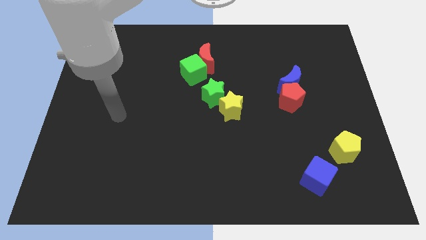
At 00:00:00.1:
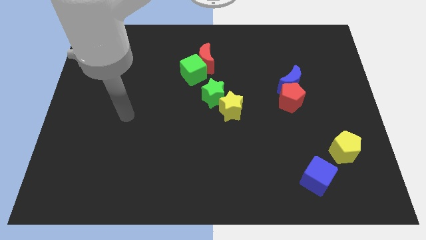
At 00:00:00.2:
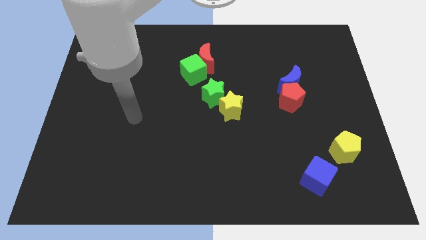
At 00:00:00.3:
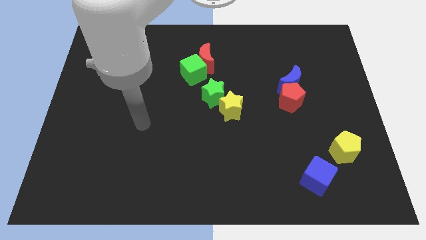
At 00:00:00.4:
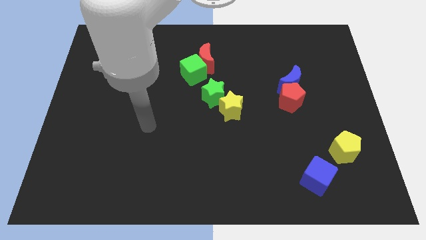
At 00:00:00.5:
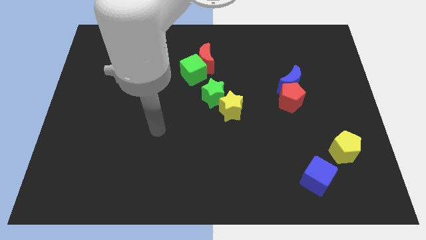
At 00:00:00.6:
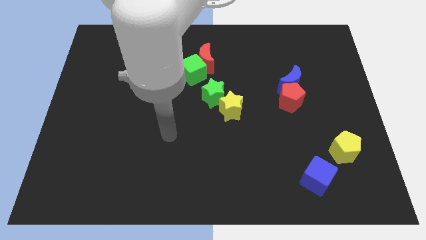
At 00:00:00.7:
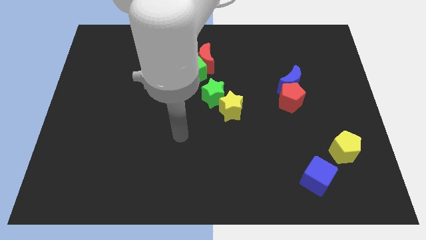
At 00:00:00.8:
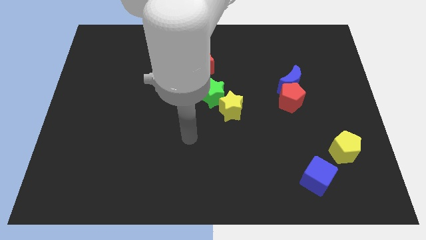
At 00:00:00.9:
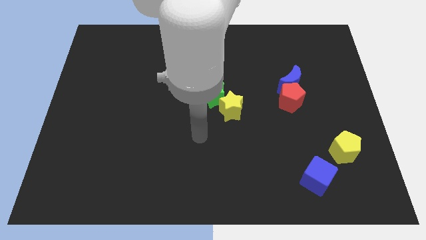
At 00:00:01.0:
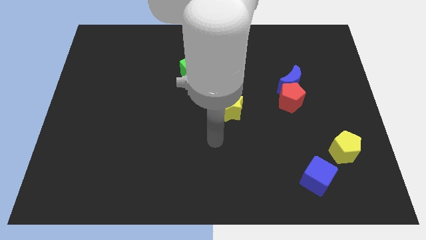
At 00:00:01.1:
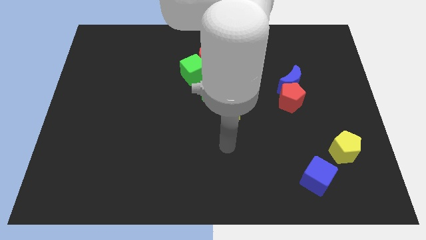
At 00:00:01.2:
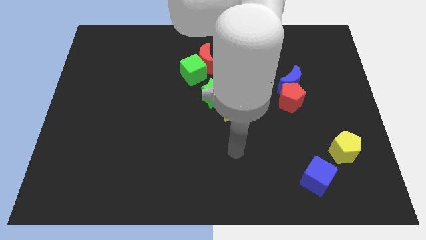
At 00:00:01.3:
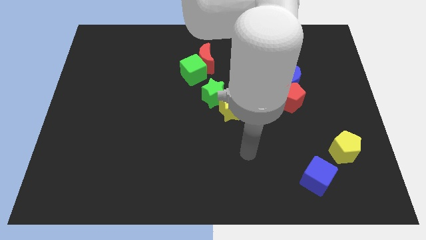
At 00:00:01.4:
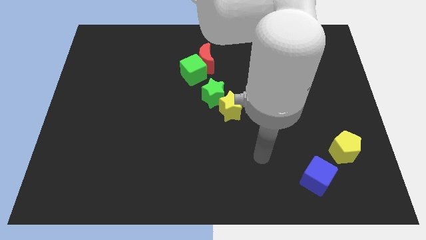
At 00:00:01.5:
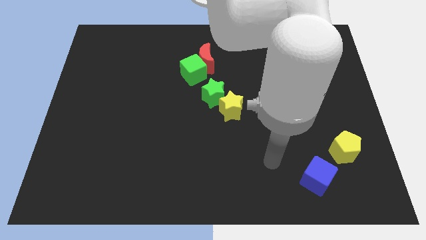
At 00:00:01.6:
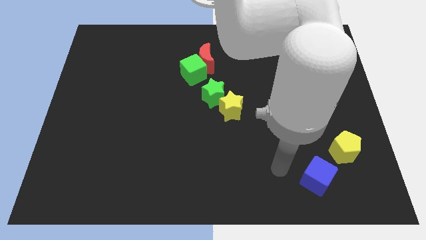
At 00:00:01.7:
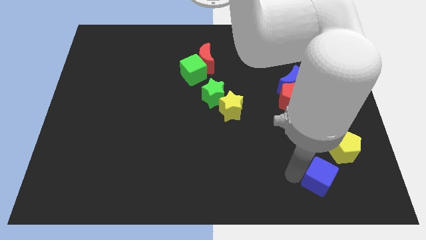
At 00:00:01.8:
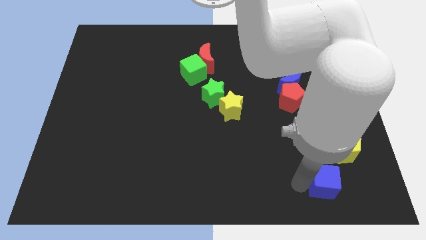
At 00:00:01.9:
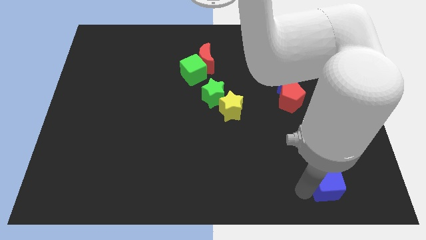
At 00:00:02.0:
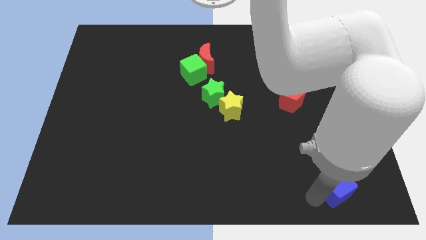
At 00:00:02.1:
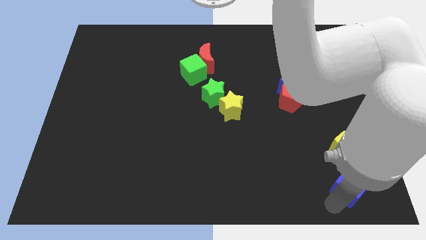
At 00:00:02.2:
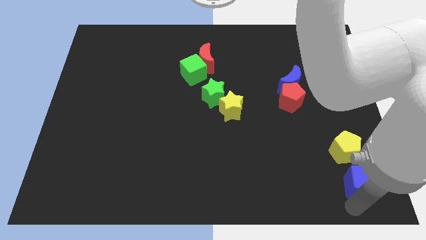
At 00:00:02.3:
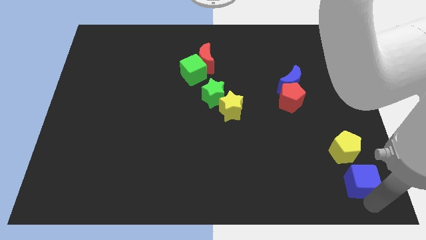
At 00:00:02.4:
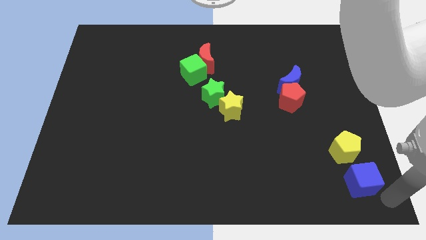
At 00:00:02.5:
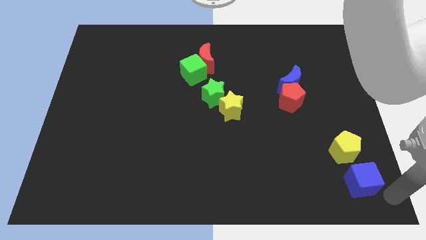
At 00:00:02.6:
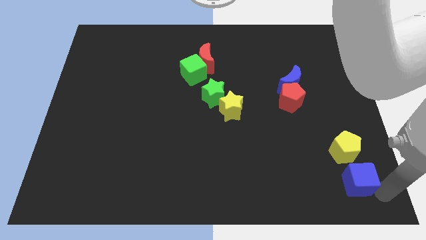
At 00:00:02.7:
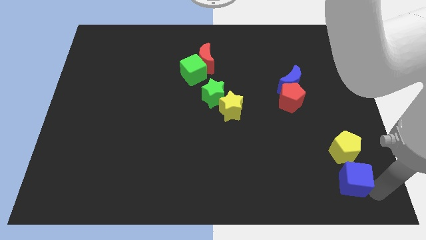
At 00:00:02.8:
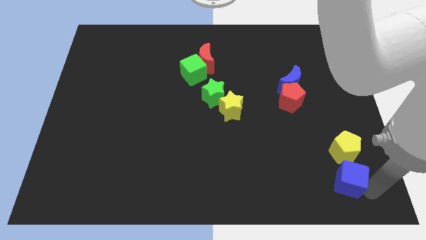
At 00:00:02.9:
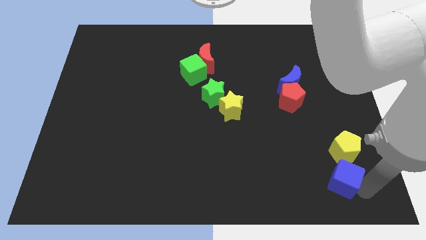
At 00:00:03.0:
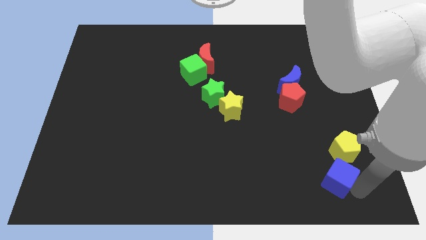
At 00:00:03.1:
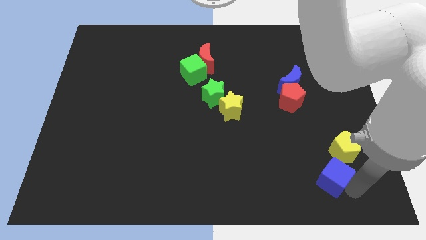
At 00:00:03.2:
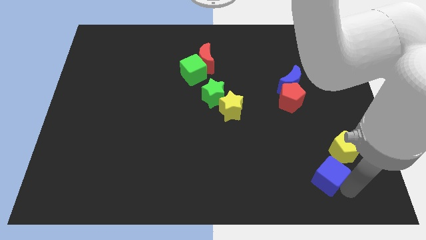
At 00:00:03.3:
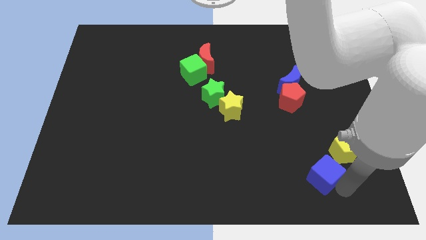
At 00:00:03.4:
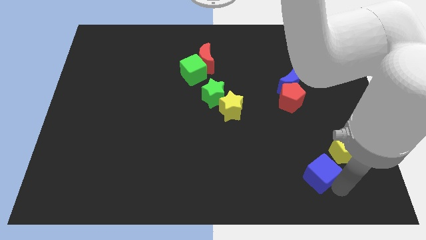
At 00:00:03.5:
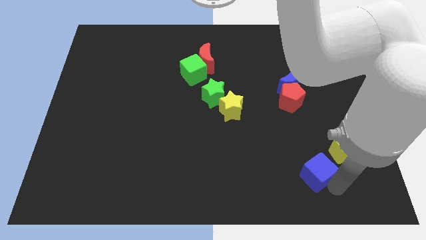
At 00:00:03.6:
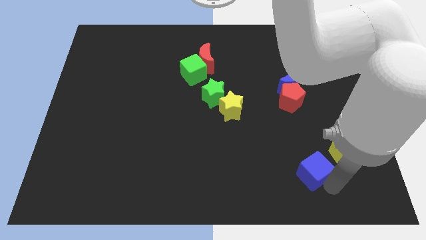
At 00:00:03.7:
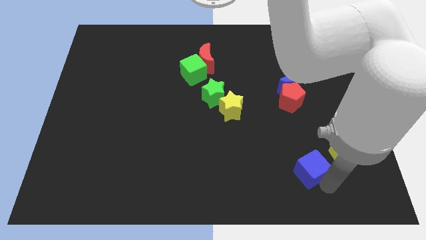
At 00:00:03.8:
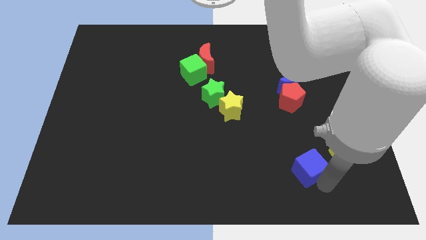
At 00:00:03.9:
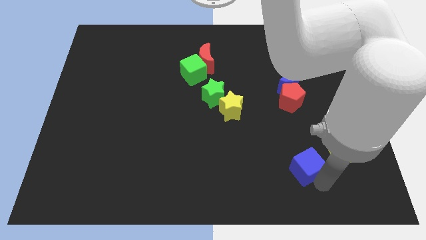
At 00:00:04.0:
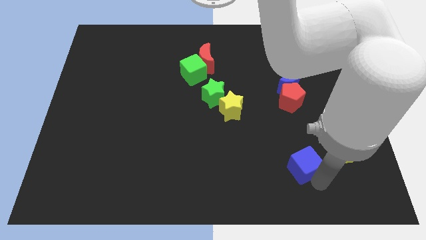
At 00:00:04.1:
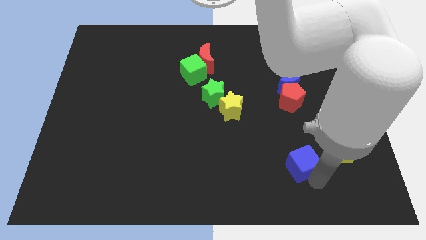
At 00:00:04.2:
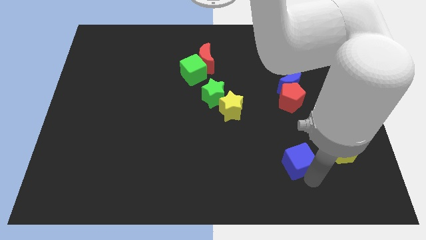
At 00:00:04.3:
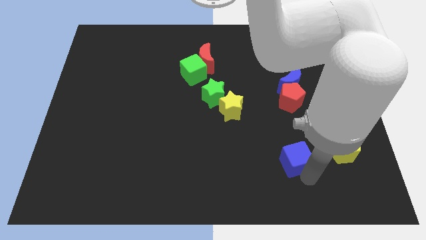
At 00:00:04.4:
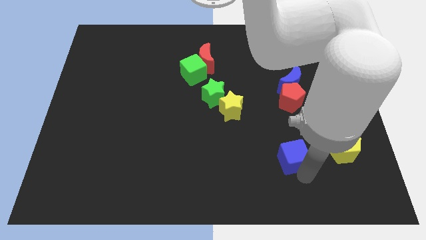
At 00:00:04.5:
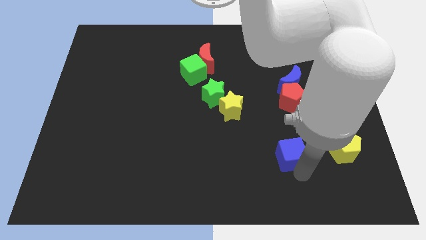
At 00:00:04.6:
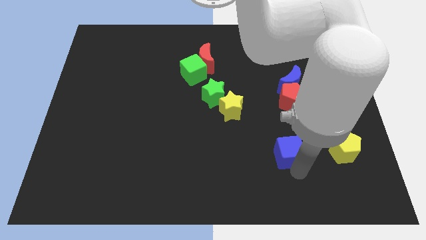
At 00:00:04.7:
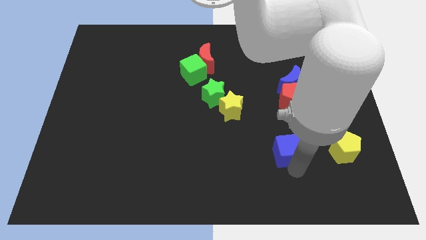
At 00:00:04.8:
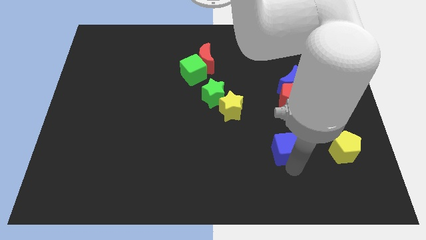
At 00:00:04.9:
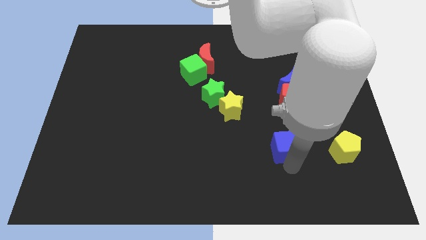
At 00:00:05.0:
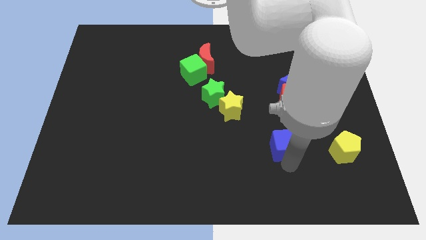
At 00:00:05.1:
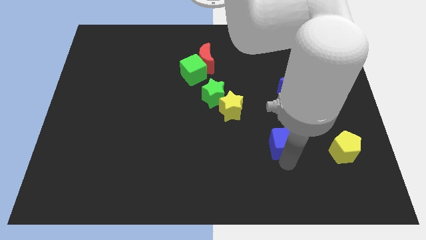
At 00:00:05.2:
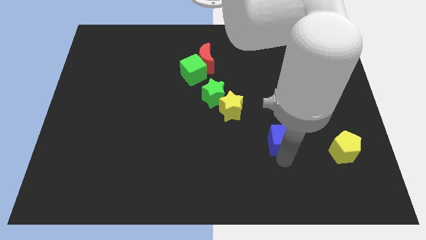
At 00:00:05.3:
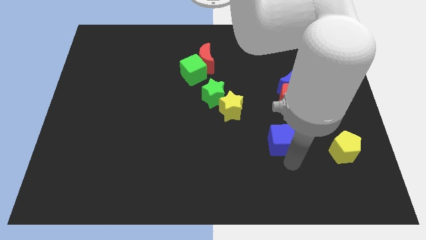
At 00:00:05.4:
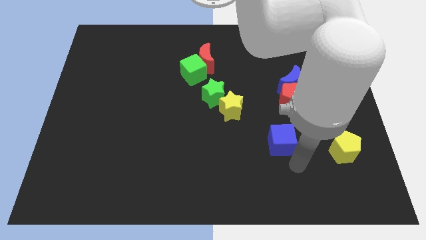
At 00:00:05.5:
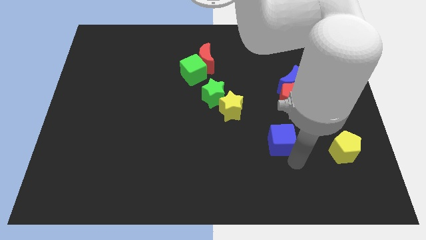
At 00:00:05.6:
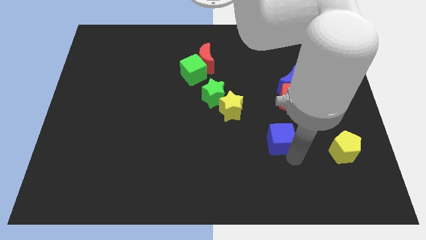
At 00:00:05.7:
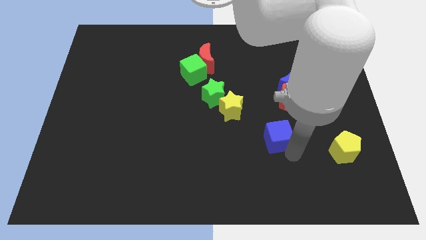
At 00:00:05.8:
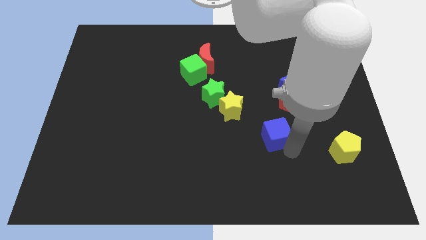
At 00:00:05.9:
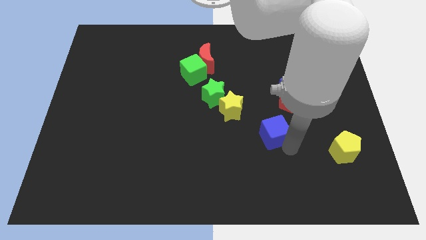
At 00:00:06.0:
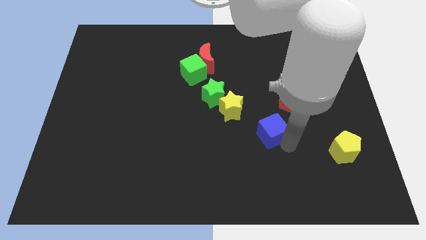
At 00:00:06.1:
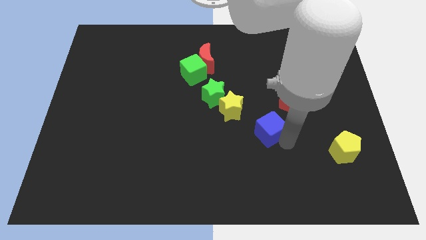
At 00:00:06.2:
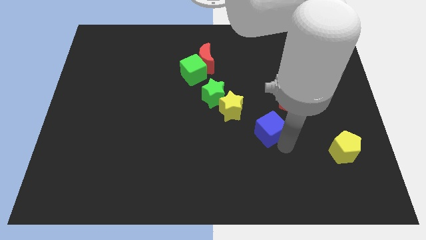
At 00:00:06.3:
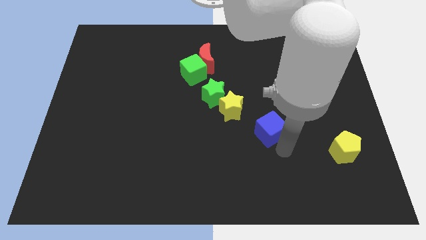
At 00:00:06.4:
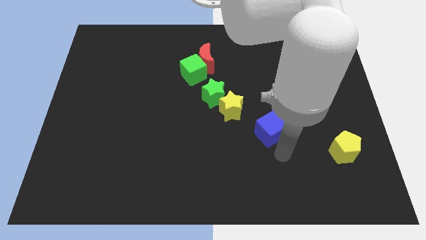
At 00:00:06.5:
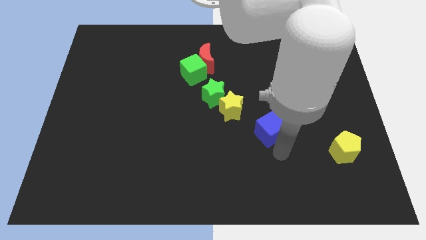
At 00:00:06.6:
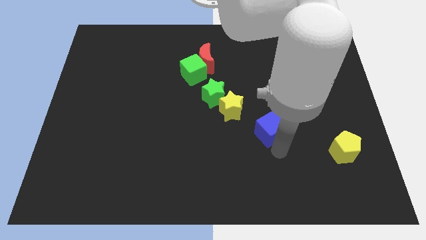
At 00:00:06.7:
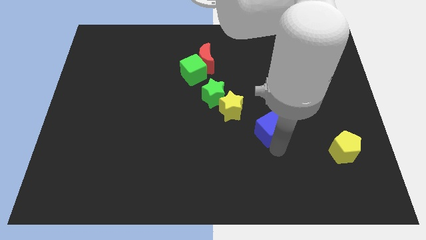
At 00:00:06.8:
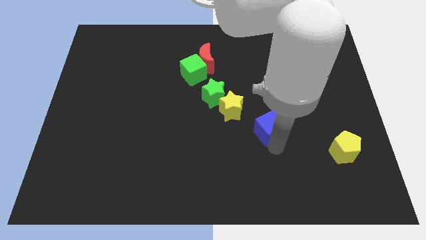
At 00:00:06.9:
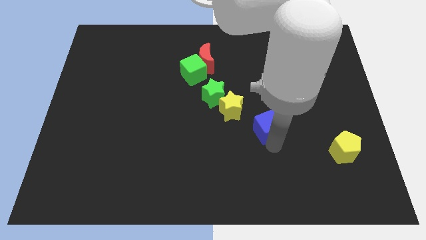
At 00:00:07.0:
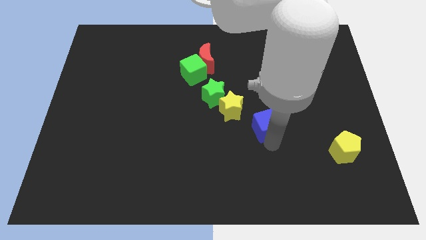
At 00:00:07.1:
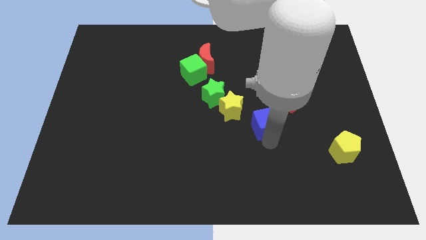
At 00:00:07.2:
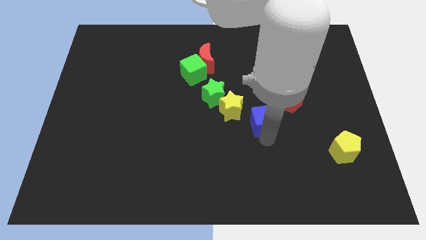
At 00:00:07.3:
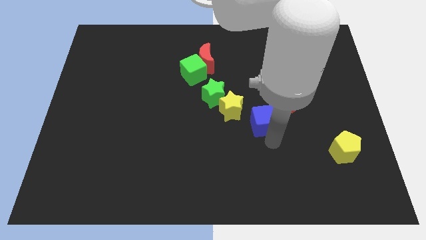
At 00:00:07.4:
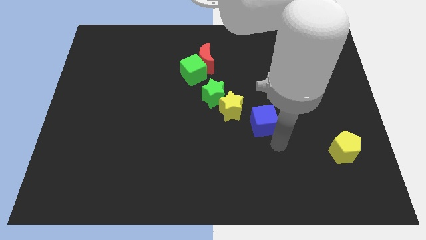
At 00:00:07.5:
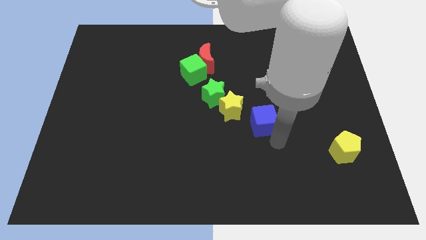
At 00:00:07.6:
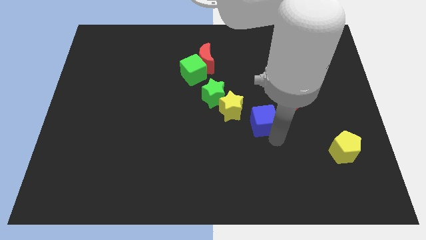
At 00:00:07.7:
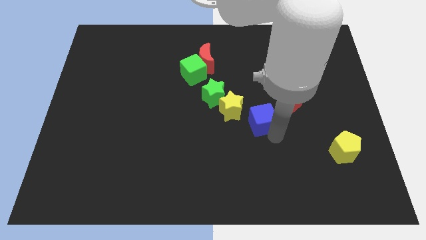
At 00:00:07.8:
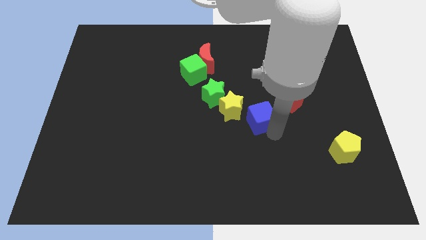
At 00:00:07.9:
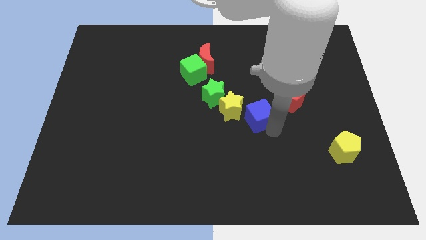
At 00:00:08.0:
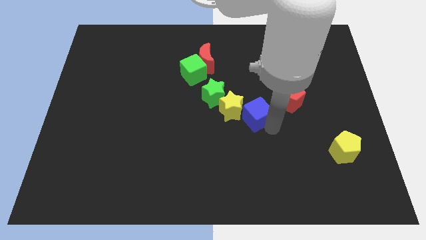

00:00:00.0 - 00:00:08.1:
move the blue cube to the left side of the red pentagon
